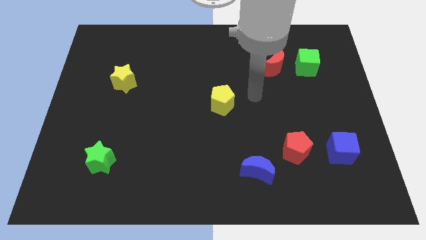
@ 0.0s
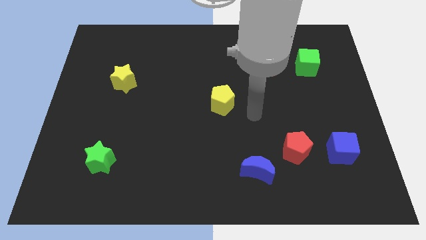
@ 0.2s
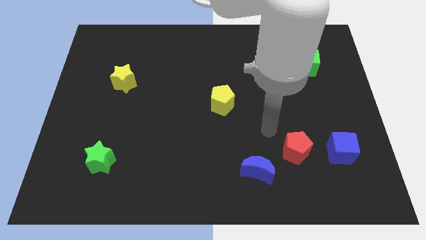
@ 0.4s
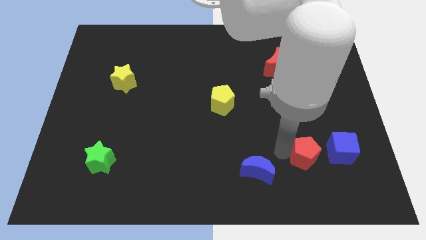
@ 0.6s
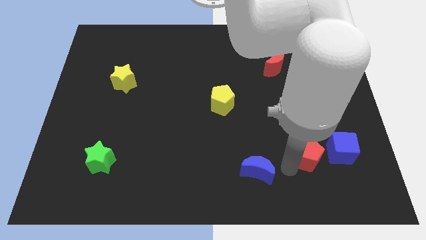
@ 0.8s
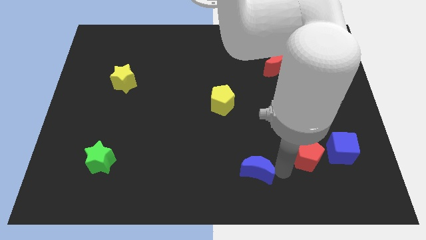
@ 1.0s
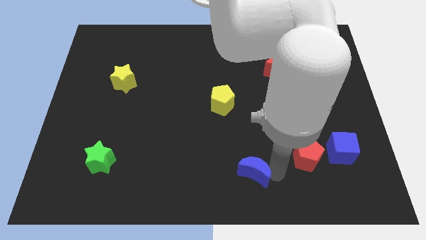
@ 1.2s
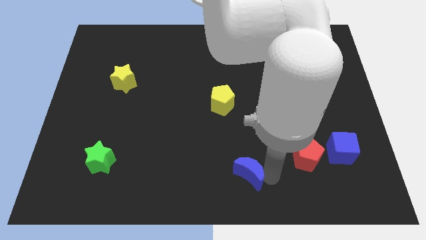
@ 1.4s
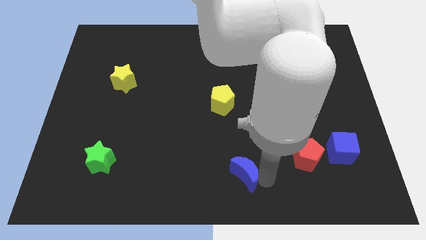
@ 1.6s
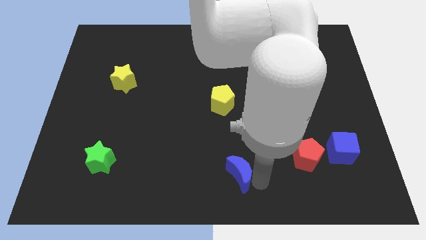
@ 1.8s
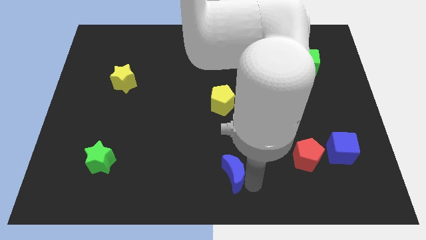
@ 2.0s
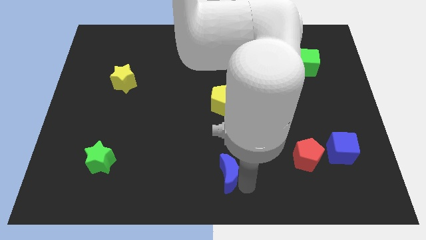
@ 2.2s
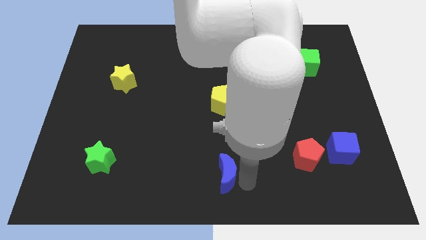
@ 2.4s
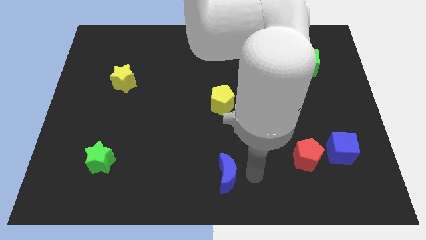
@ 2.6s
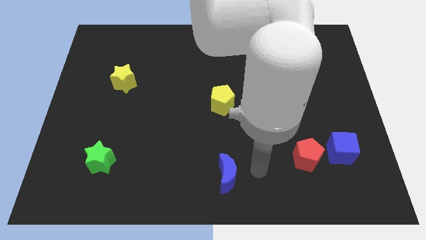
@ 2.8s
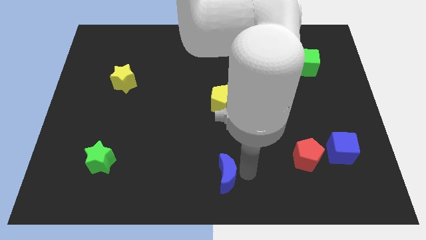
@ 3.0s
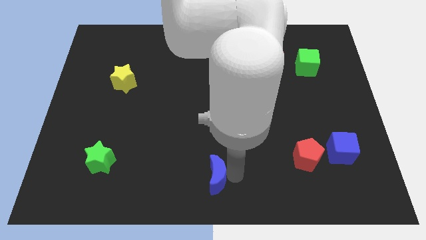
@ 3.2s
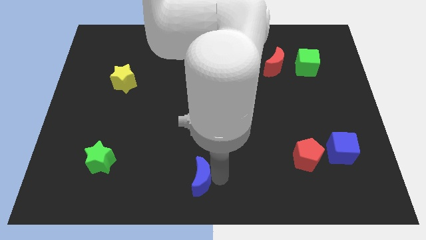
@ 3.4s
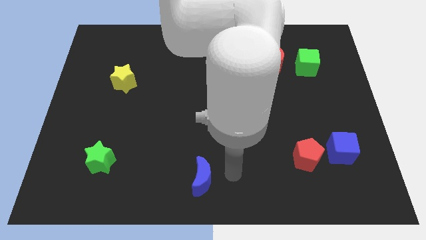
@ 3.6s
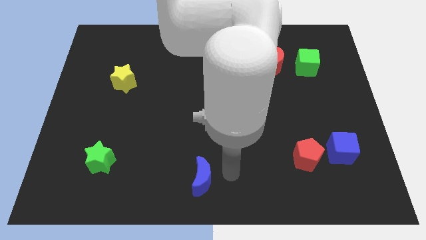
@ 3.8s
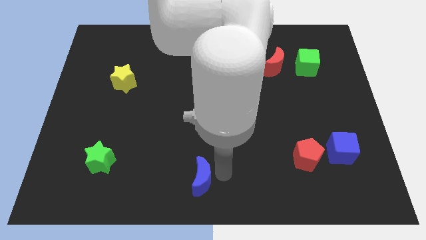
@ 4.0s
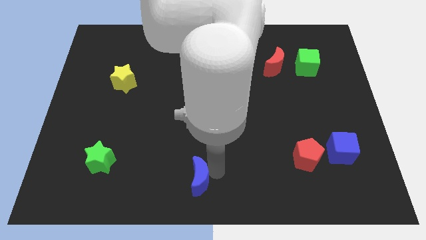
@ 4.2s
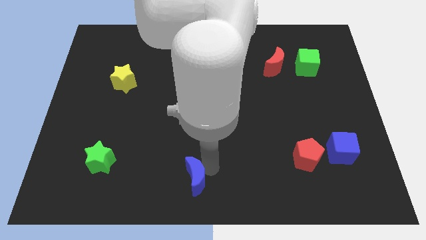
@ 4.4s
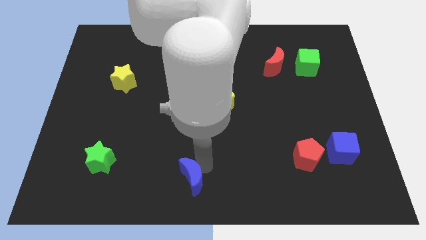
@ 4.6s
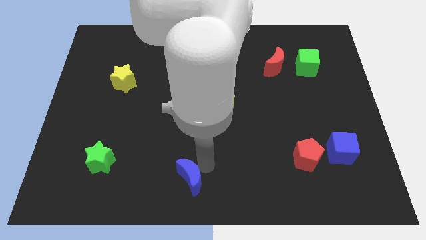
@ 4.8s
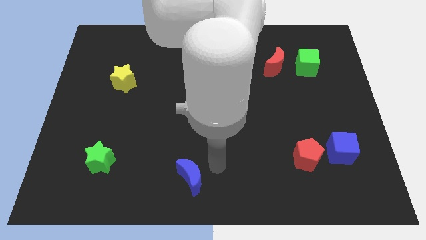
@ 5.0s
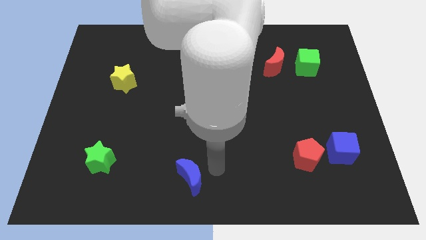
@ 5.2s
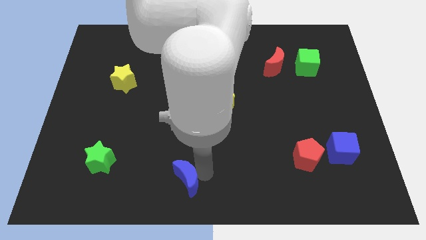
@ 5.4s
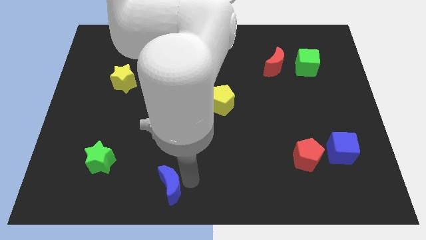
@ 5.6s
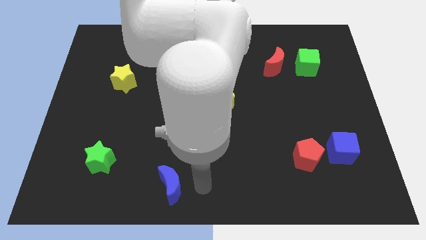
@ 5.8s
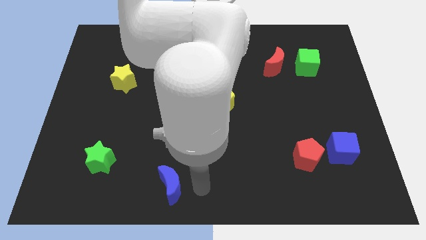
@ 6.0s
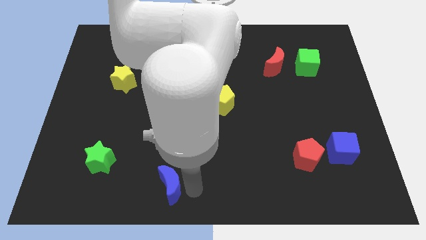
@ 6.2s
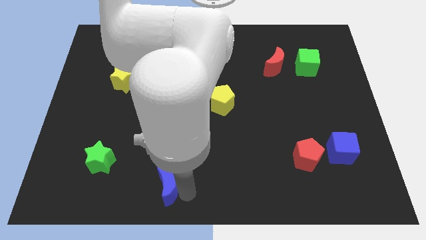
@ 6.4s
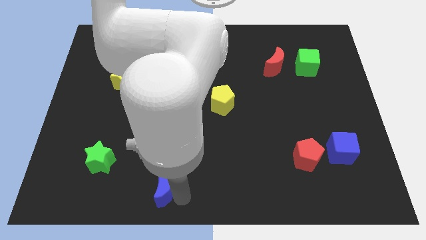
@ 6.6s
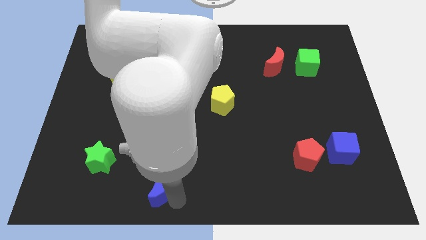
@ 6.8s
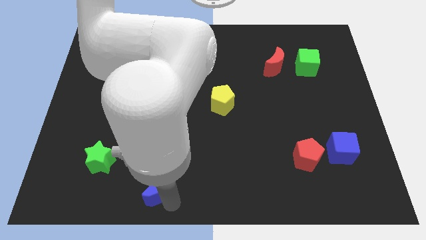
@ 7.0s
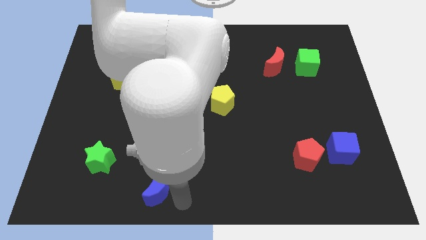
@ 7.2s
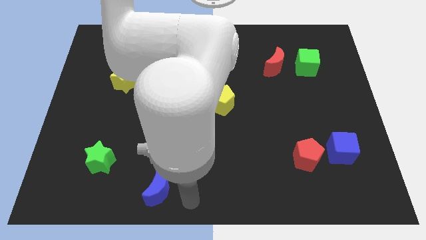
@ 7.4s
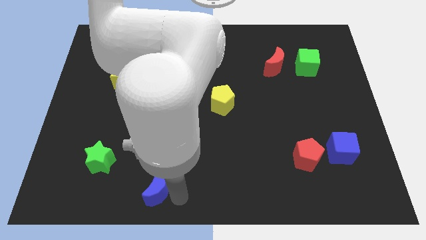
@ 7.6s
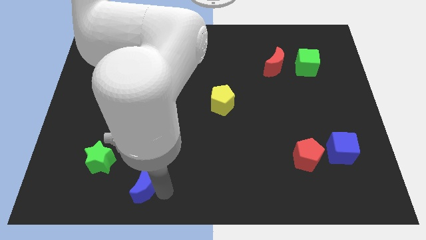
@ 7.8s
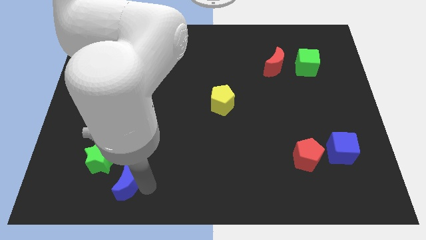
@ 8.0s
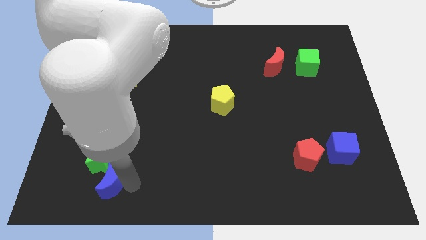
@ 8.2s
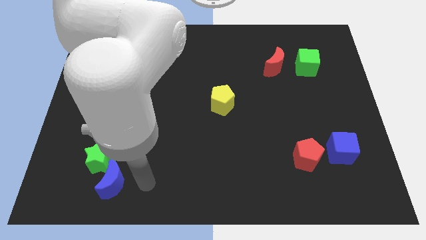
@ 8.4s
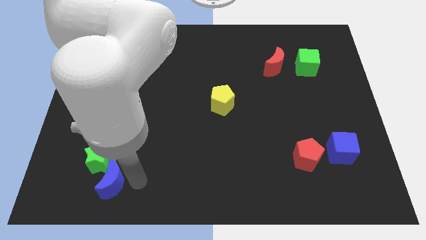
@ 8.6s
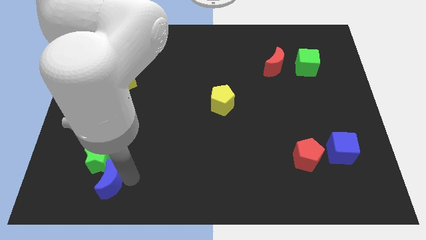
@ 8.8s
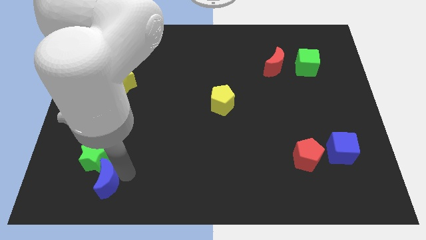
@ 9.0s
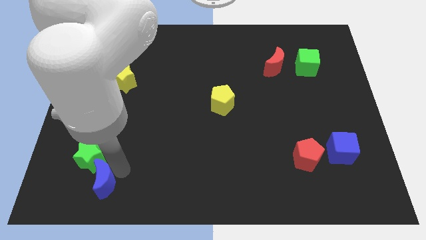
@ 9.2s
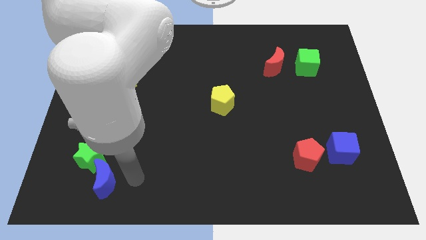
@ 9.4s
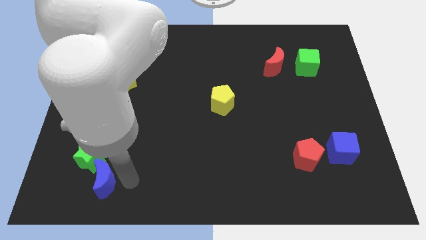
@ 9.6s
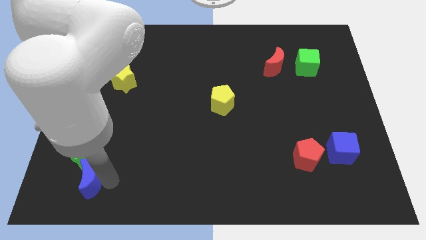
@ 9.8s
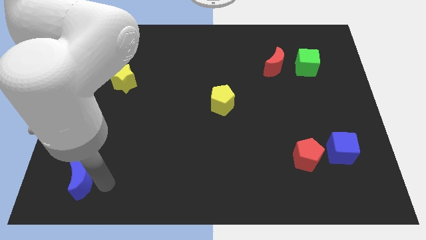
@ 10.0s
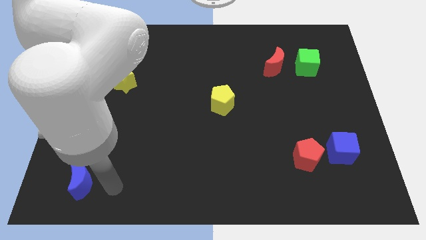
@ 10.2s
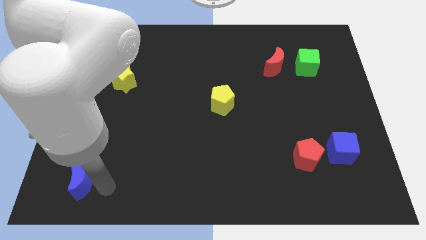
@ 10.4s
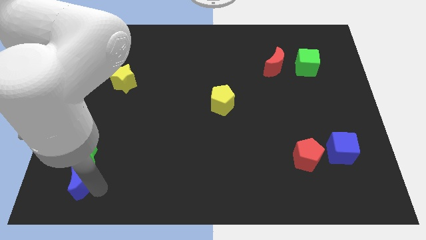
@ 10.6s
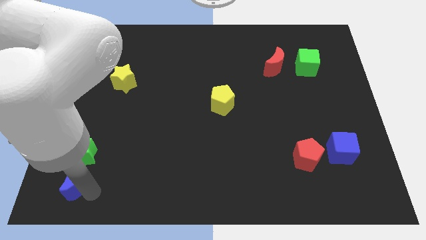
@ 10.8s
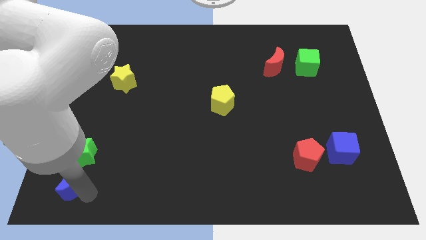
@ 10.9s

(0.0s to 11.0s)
push the blue moon to the bottom left side of the green star

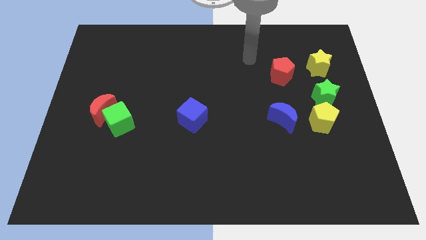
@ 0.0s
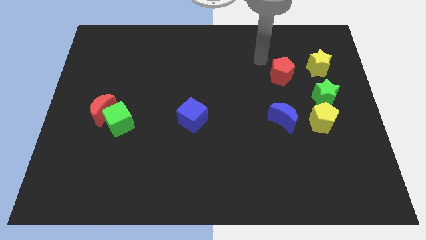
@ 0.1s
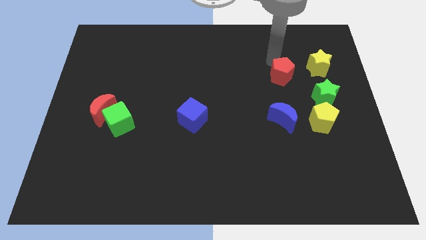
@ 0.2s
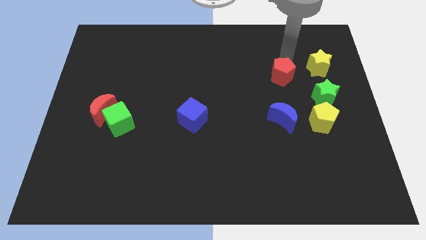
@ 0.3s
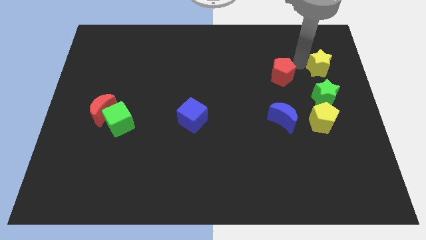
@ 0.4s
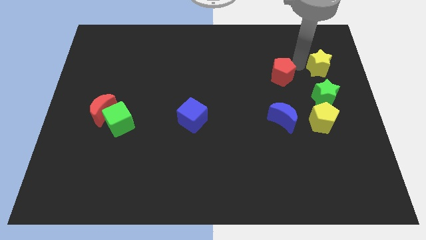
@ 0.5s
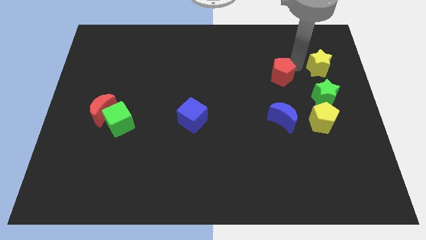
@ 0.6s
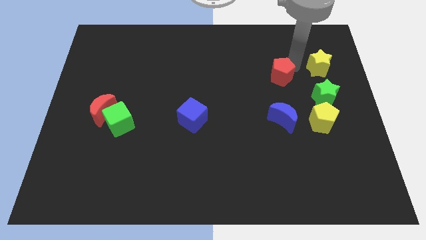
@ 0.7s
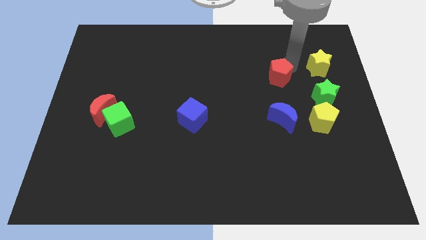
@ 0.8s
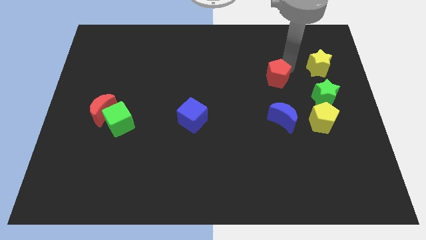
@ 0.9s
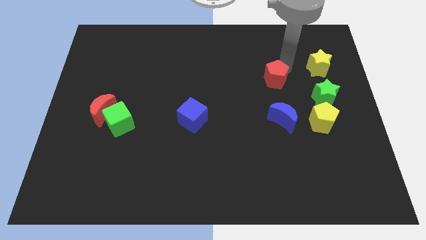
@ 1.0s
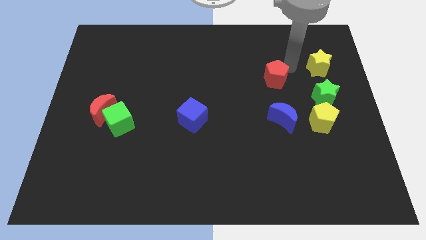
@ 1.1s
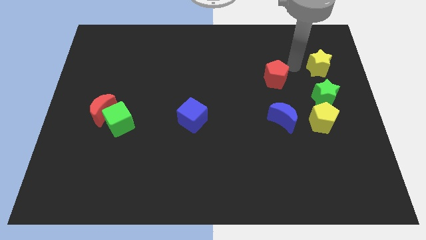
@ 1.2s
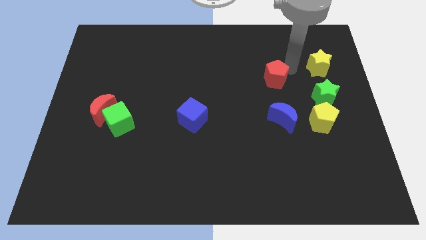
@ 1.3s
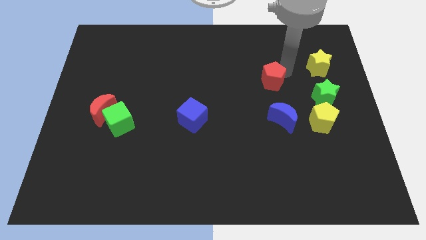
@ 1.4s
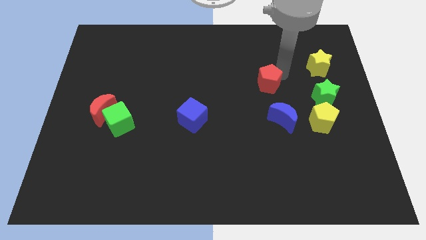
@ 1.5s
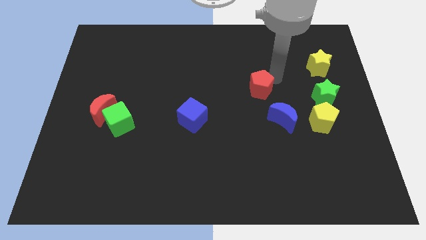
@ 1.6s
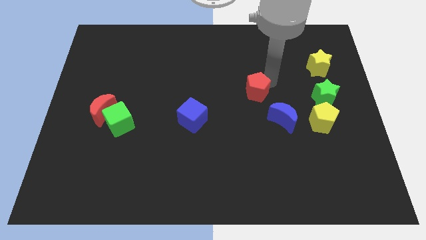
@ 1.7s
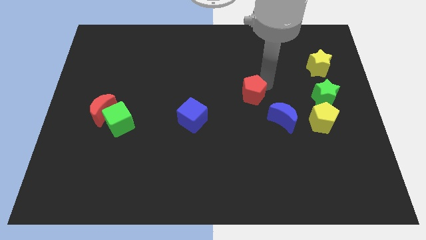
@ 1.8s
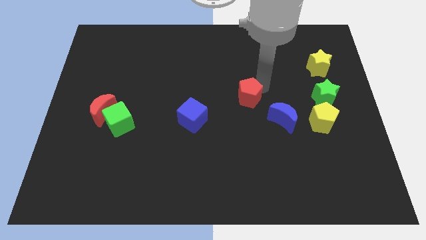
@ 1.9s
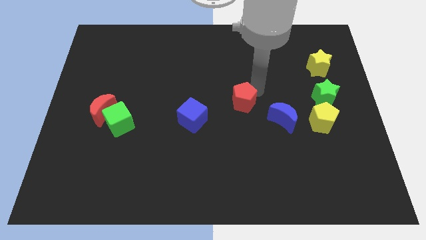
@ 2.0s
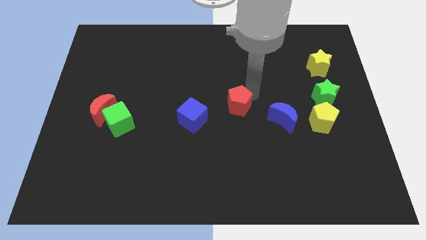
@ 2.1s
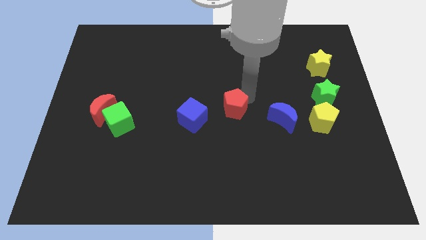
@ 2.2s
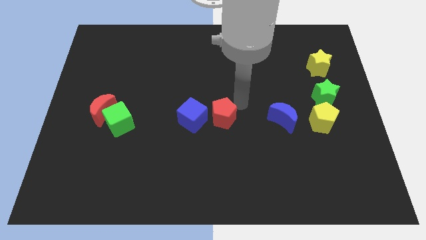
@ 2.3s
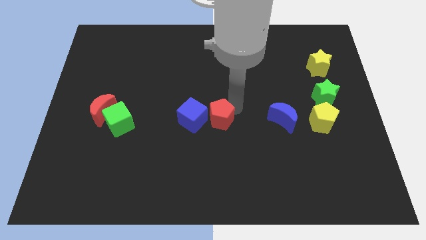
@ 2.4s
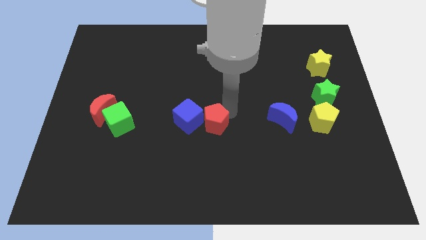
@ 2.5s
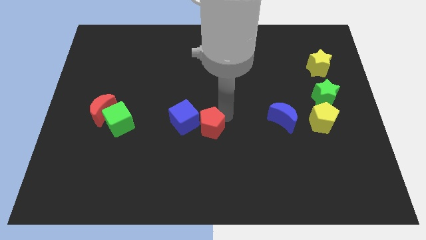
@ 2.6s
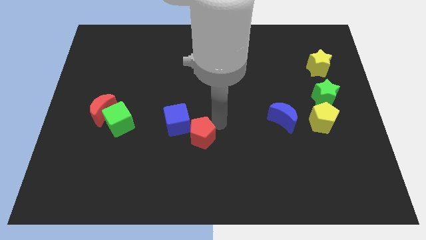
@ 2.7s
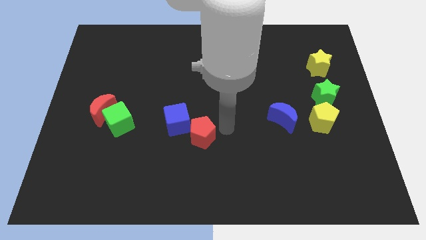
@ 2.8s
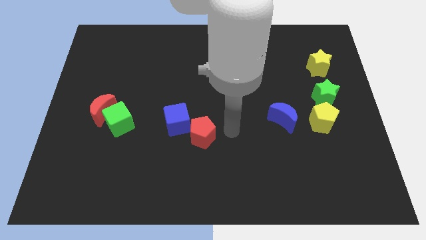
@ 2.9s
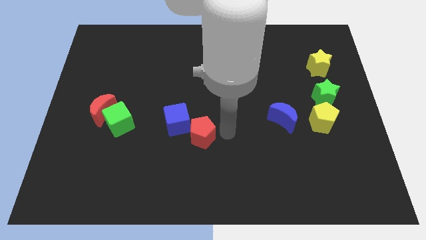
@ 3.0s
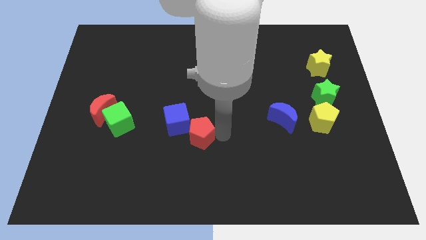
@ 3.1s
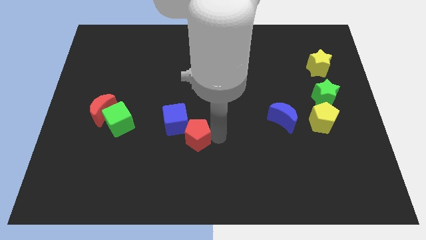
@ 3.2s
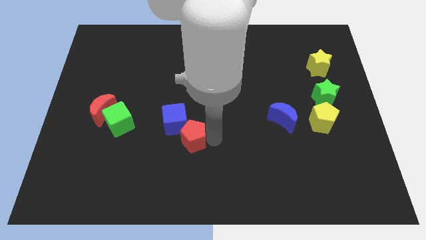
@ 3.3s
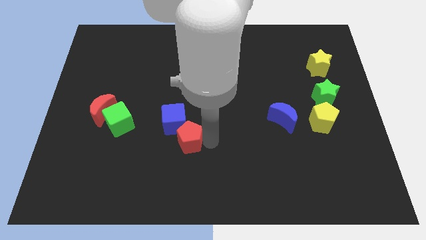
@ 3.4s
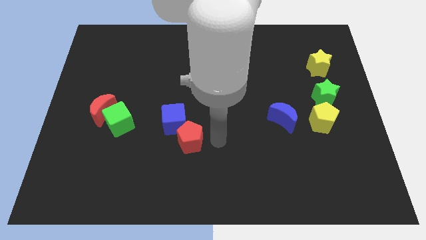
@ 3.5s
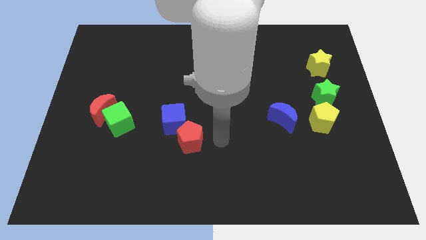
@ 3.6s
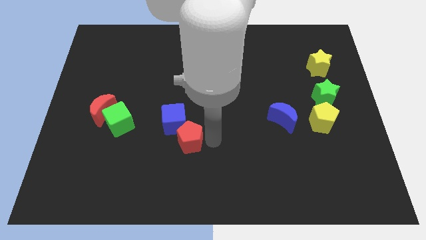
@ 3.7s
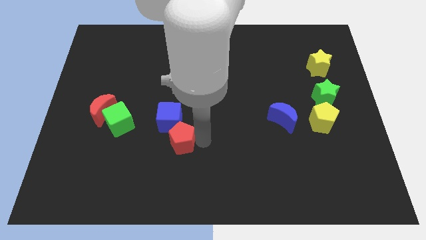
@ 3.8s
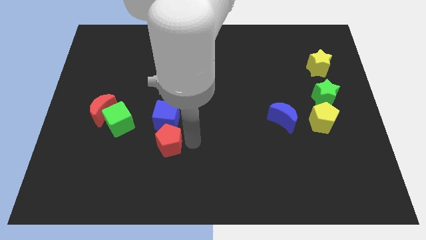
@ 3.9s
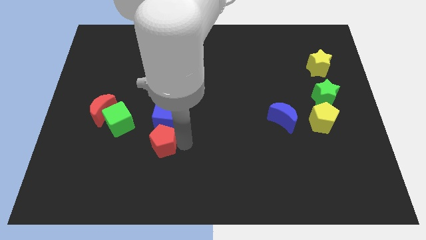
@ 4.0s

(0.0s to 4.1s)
push the red pentagon diagonally down and to the left of the blue cube
